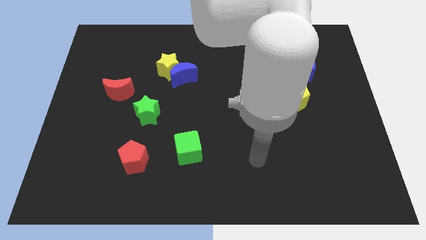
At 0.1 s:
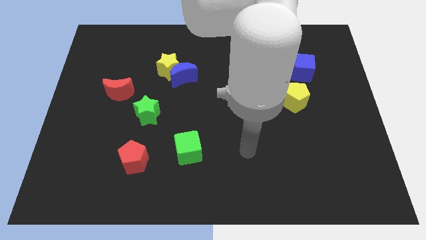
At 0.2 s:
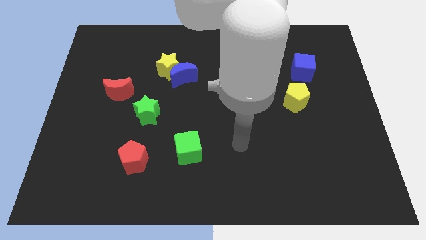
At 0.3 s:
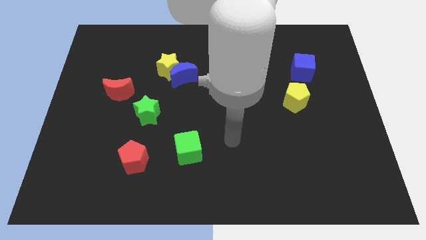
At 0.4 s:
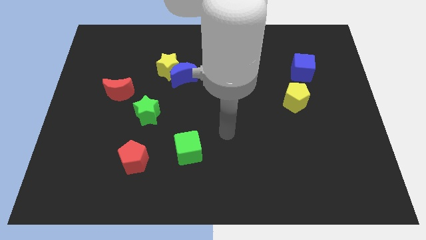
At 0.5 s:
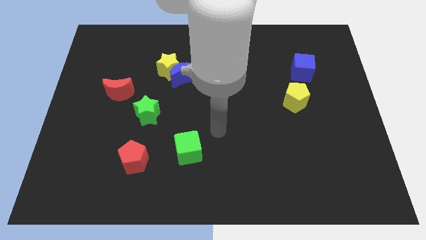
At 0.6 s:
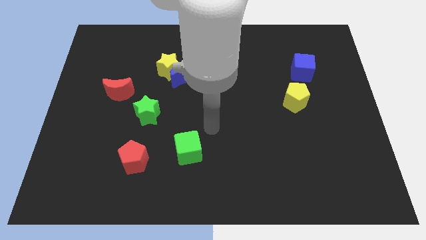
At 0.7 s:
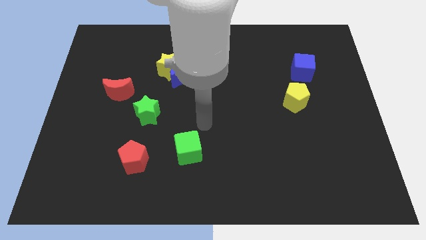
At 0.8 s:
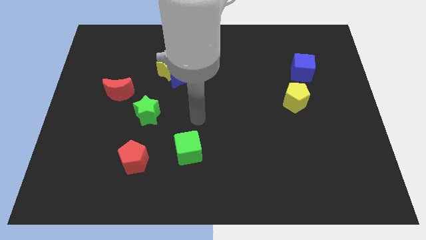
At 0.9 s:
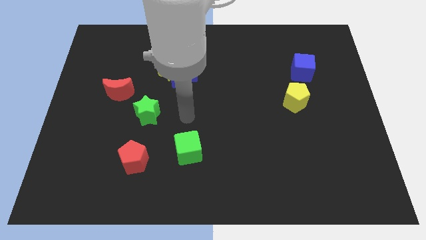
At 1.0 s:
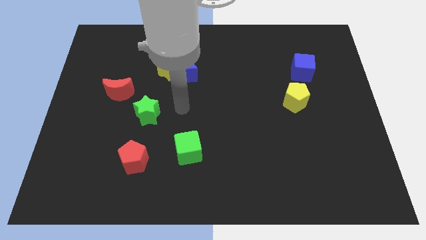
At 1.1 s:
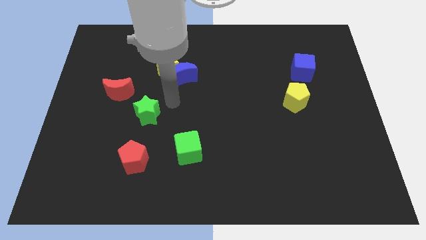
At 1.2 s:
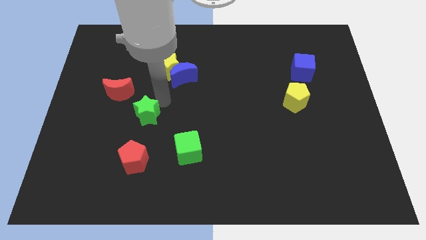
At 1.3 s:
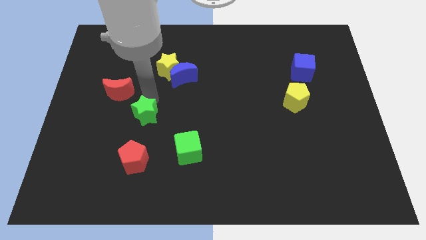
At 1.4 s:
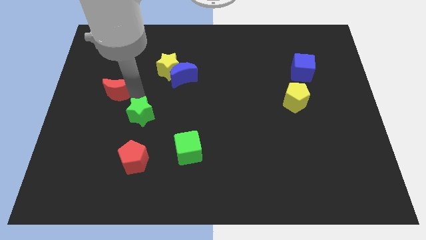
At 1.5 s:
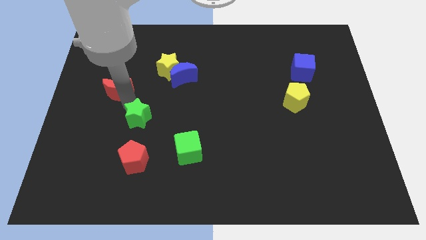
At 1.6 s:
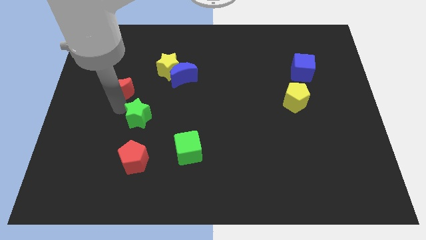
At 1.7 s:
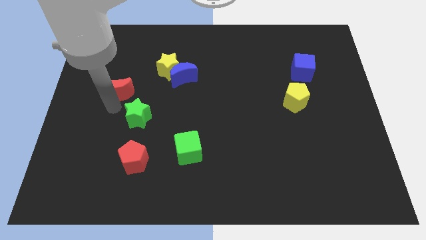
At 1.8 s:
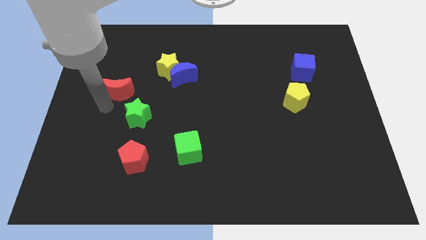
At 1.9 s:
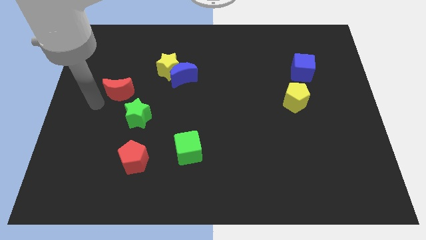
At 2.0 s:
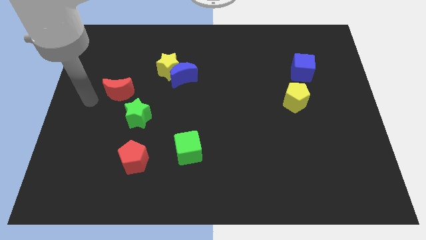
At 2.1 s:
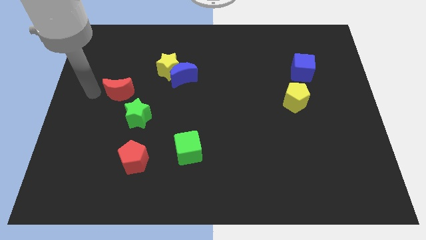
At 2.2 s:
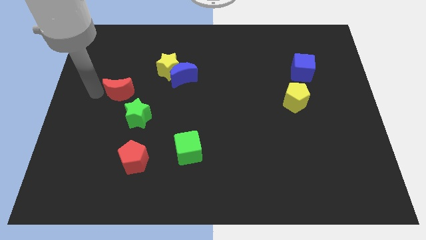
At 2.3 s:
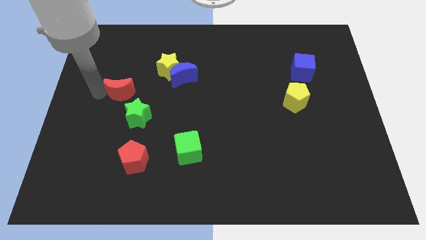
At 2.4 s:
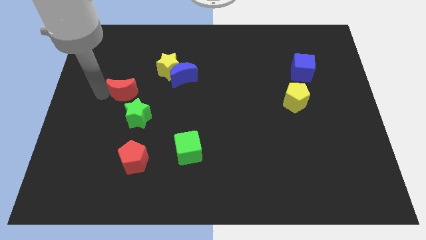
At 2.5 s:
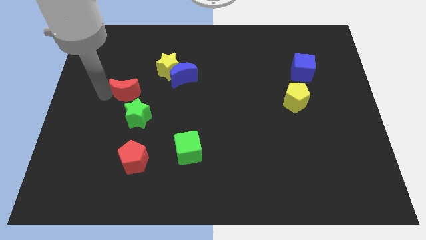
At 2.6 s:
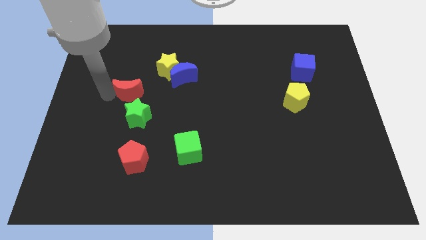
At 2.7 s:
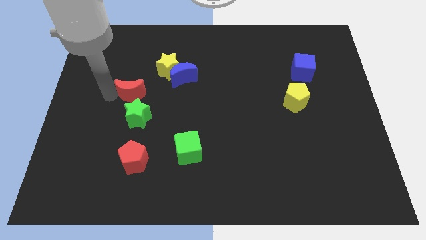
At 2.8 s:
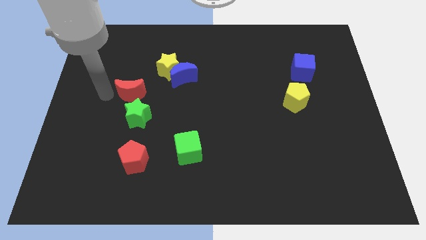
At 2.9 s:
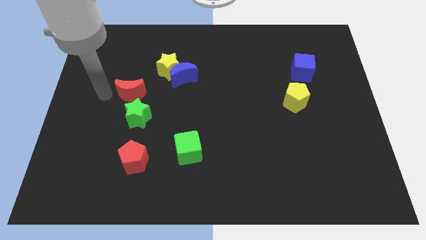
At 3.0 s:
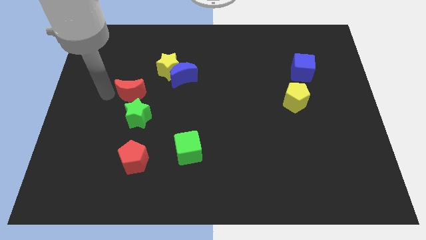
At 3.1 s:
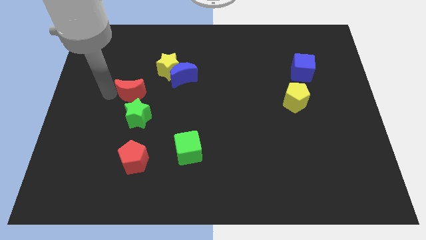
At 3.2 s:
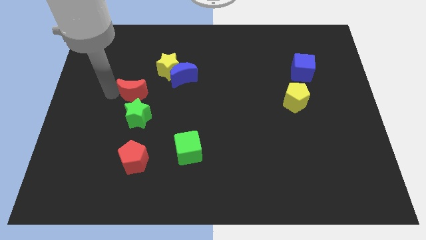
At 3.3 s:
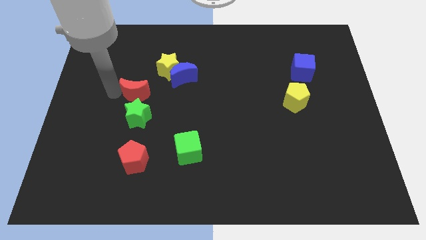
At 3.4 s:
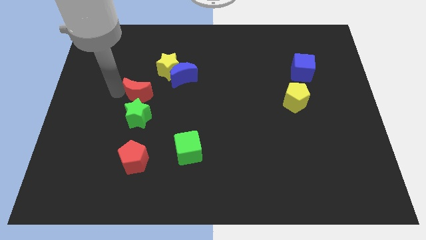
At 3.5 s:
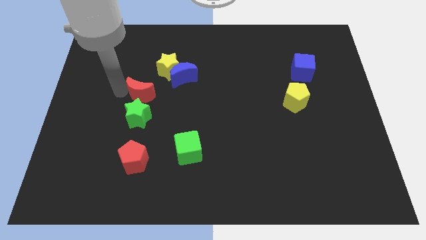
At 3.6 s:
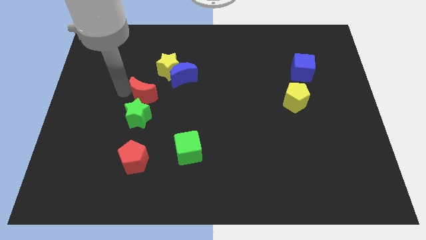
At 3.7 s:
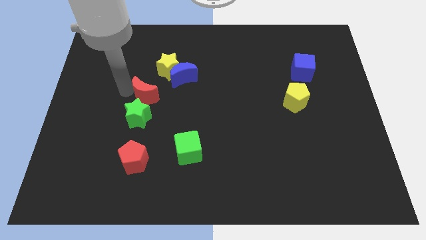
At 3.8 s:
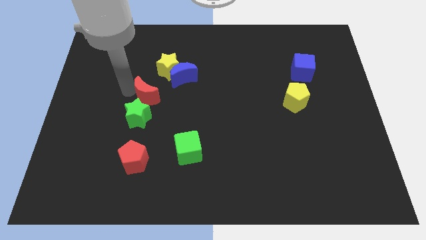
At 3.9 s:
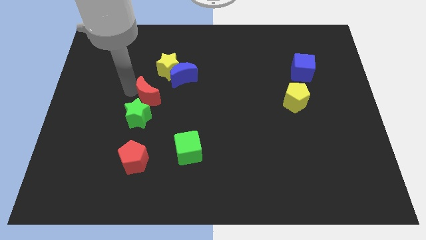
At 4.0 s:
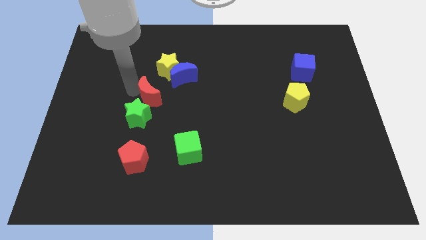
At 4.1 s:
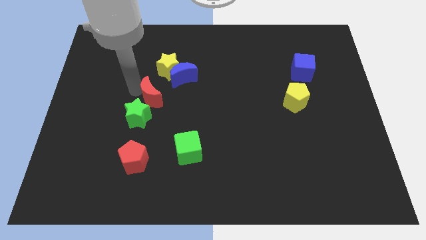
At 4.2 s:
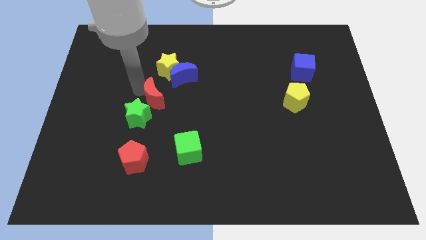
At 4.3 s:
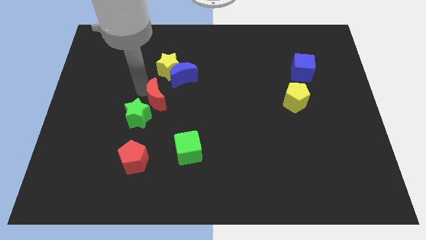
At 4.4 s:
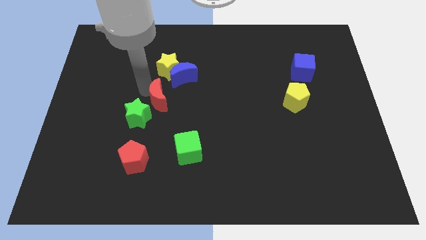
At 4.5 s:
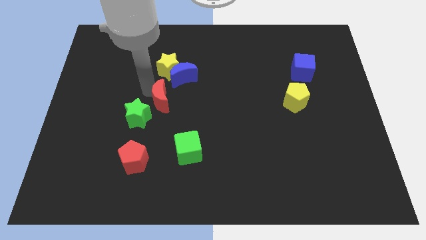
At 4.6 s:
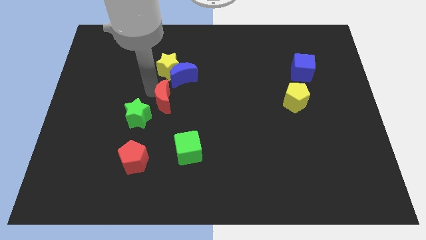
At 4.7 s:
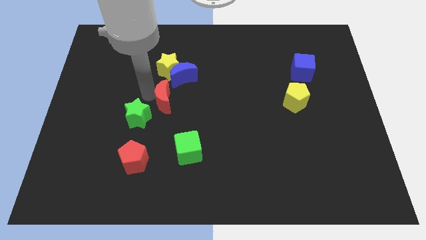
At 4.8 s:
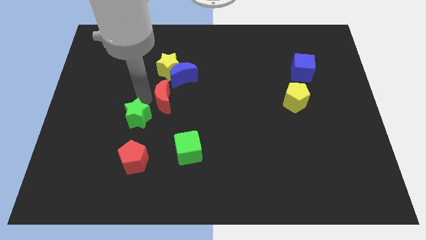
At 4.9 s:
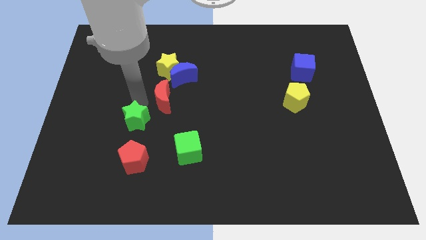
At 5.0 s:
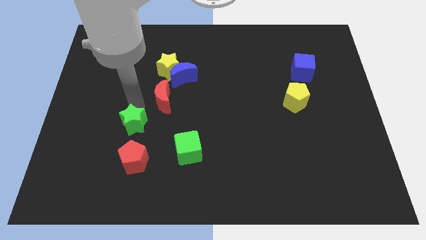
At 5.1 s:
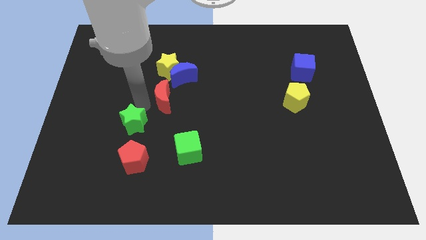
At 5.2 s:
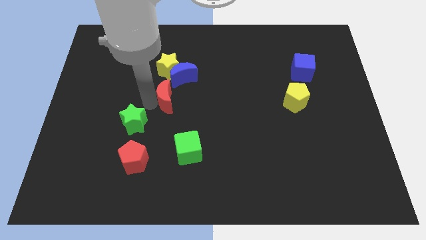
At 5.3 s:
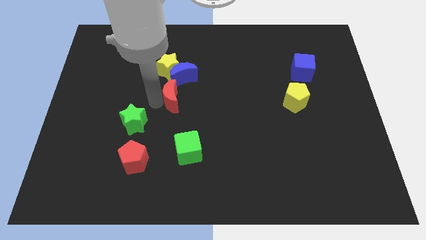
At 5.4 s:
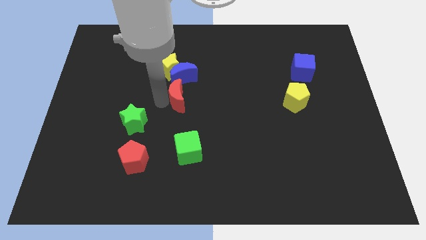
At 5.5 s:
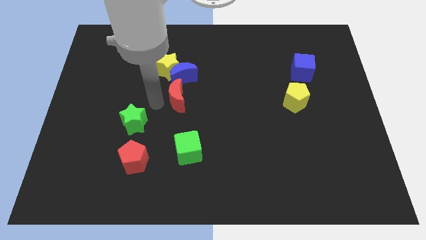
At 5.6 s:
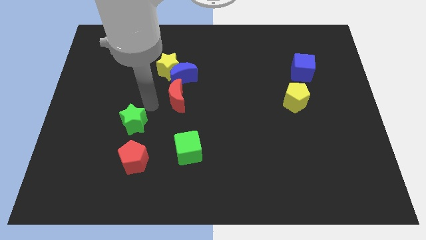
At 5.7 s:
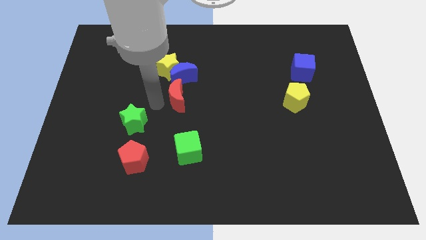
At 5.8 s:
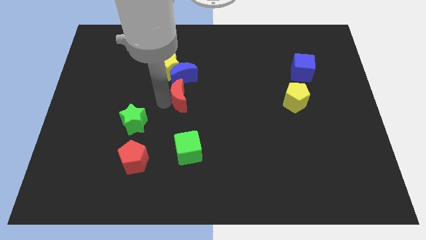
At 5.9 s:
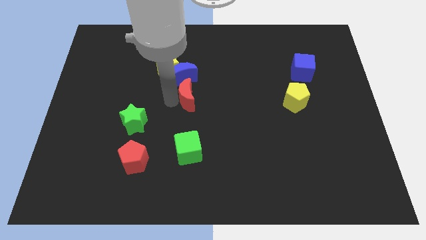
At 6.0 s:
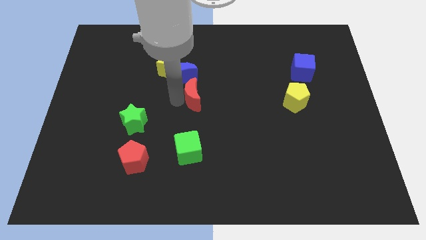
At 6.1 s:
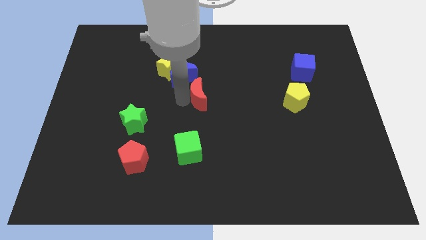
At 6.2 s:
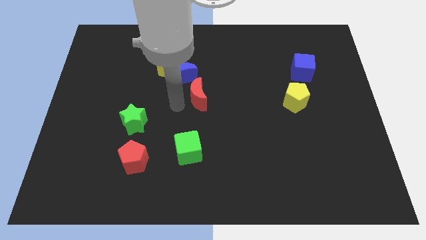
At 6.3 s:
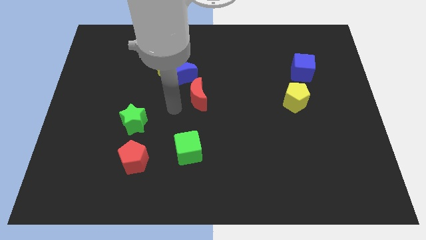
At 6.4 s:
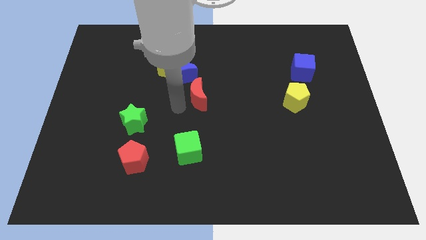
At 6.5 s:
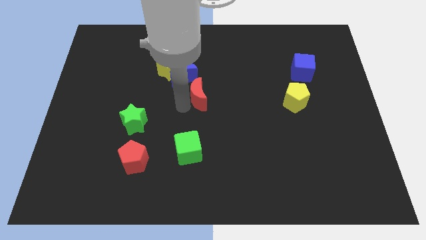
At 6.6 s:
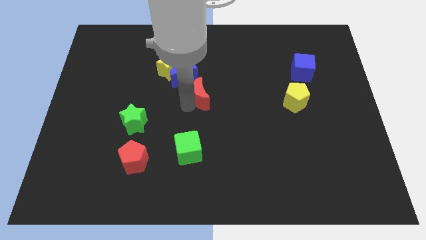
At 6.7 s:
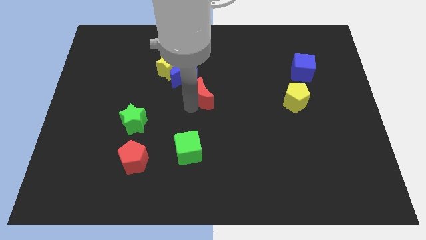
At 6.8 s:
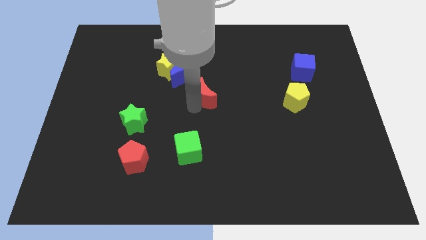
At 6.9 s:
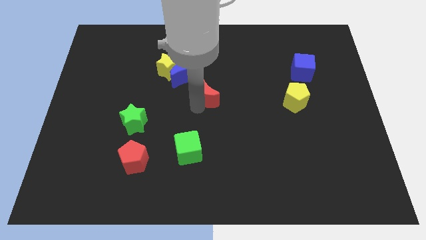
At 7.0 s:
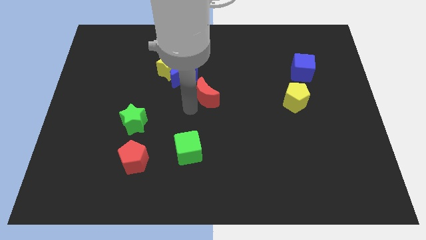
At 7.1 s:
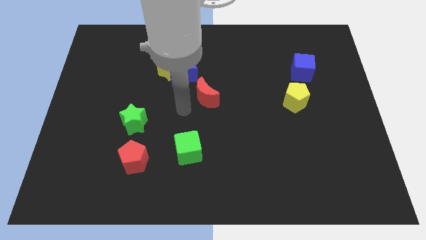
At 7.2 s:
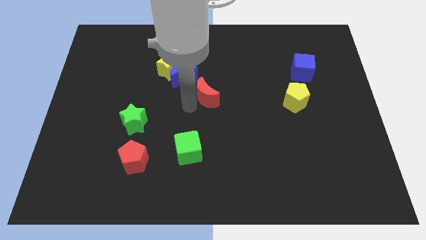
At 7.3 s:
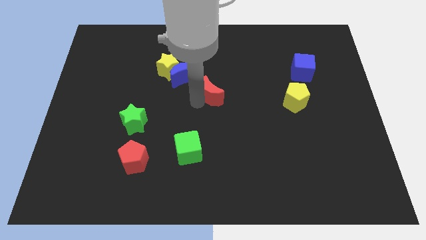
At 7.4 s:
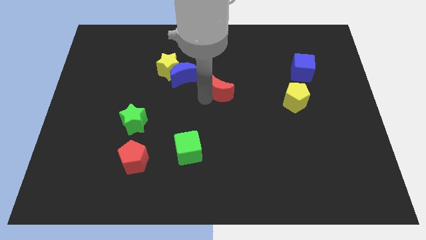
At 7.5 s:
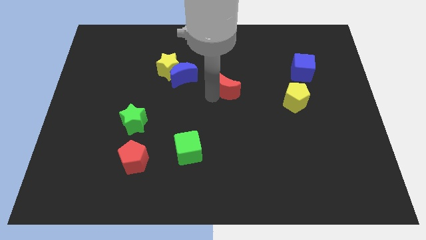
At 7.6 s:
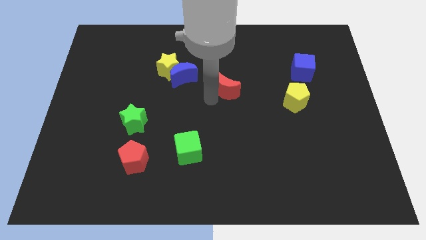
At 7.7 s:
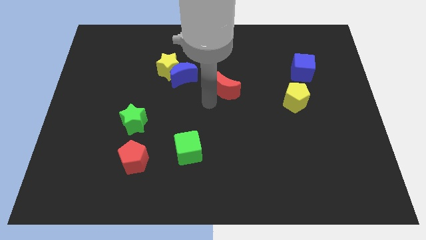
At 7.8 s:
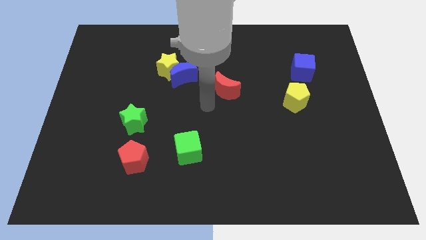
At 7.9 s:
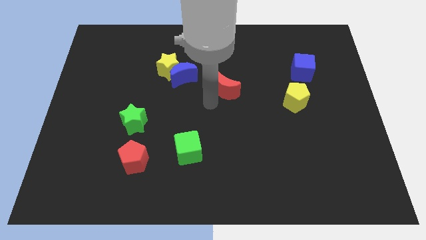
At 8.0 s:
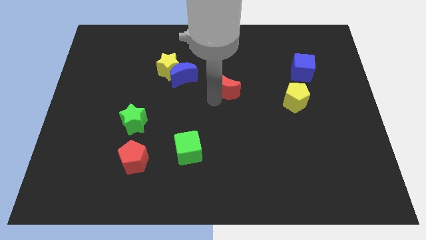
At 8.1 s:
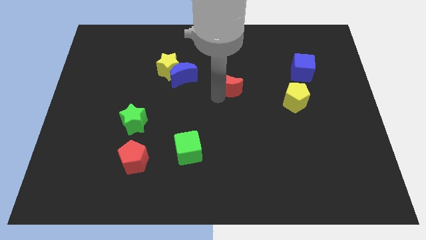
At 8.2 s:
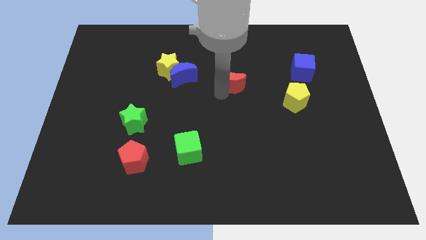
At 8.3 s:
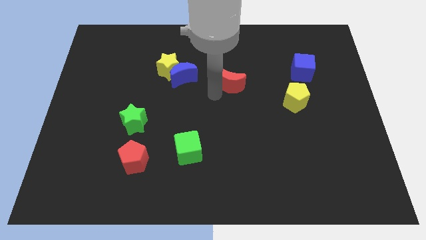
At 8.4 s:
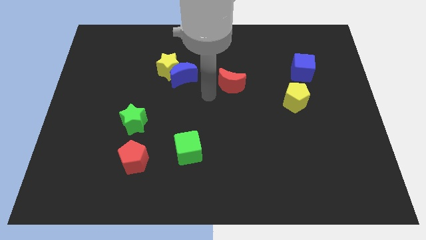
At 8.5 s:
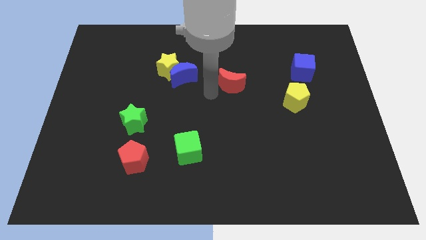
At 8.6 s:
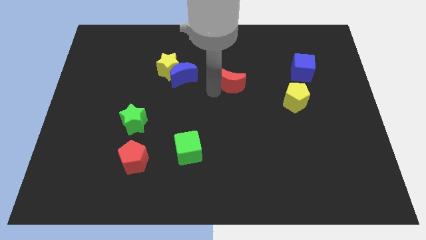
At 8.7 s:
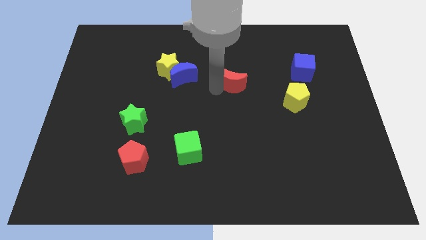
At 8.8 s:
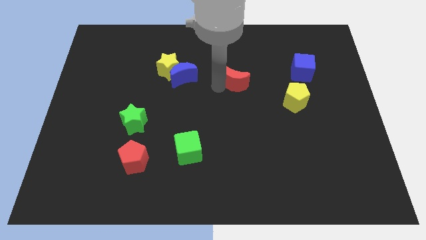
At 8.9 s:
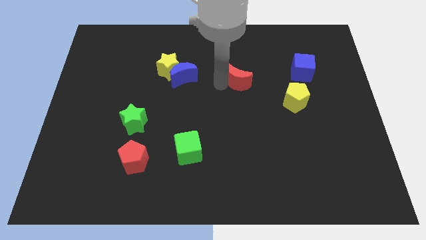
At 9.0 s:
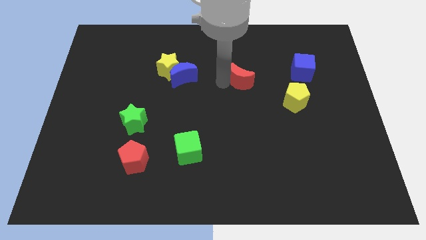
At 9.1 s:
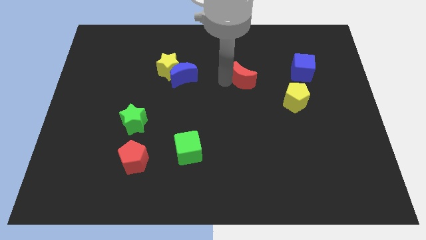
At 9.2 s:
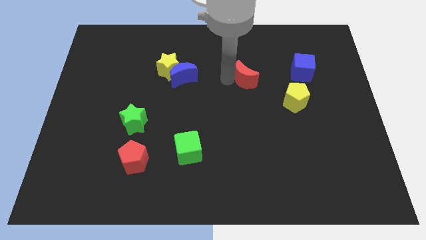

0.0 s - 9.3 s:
slide the red moon to the left side of the blue cube
